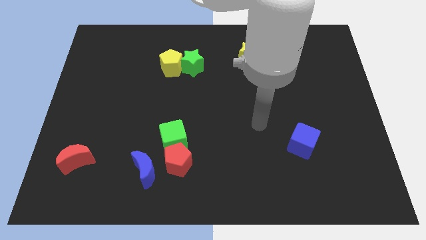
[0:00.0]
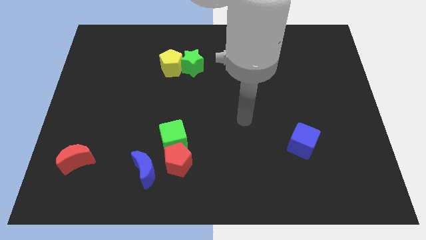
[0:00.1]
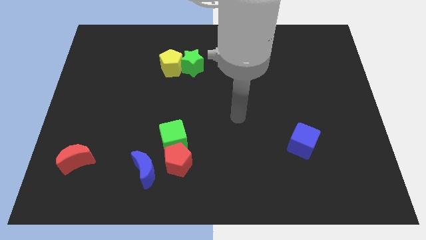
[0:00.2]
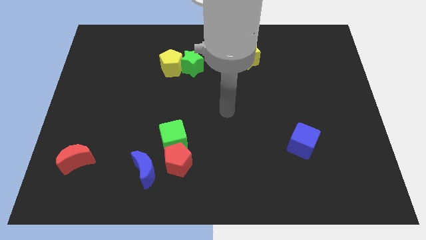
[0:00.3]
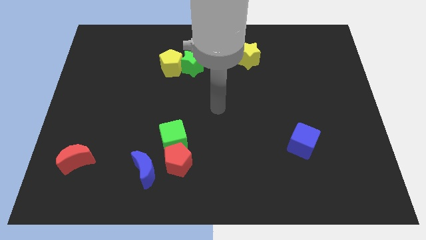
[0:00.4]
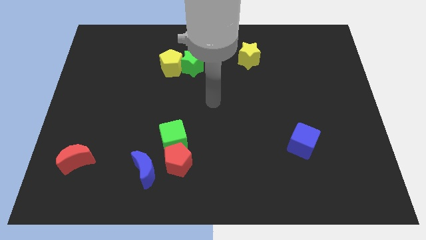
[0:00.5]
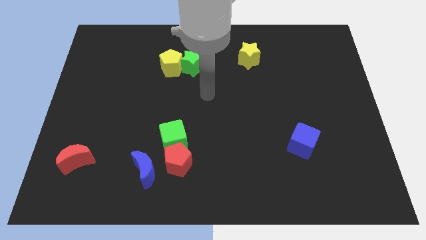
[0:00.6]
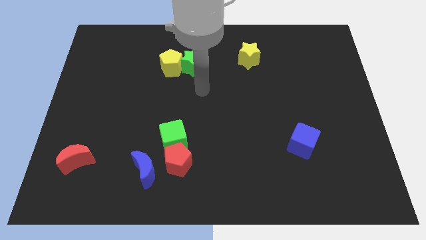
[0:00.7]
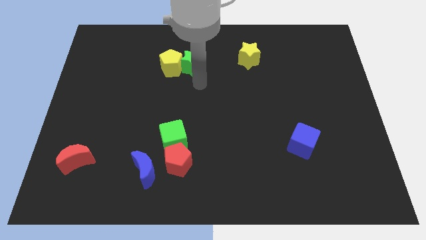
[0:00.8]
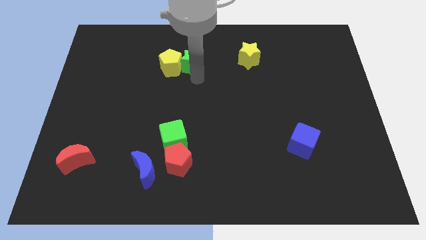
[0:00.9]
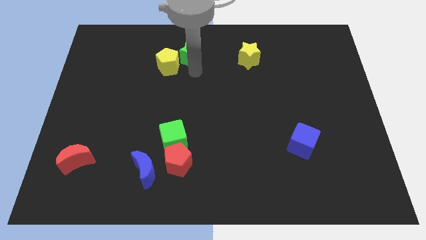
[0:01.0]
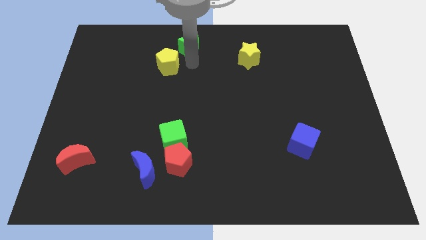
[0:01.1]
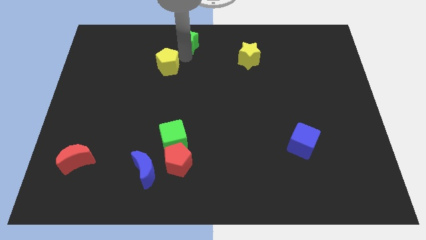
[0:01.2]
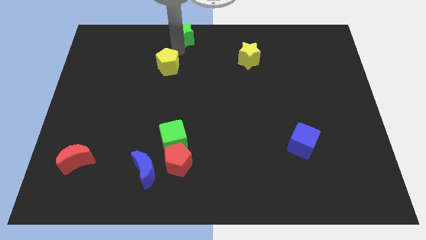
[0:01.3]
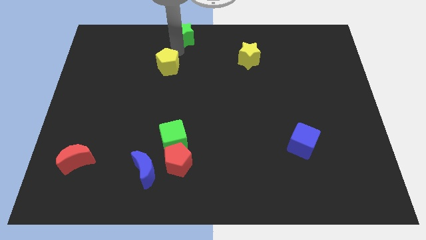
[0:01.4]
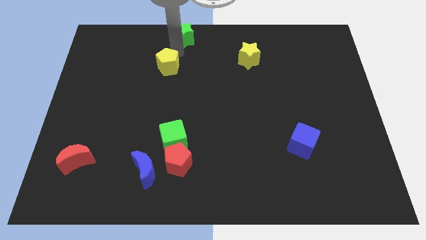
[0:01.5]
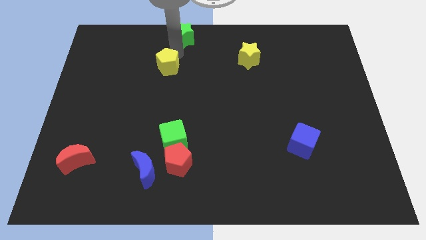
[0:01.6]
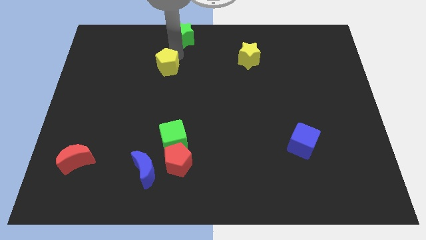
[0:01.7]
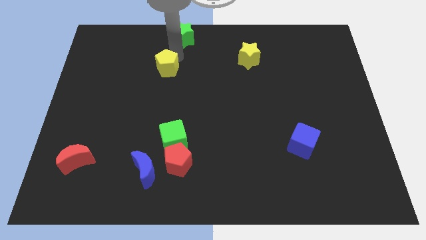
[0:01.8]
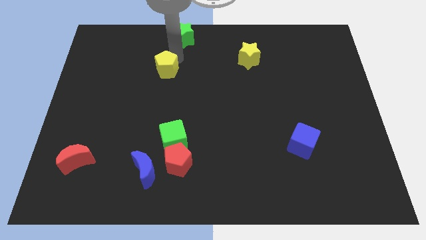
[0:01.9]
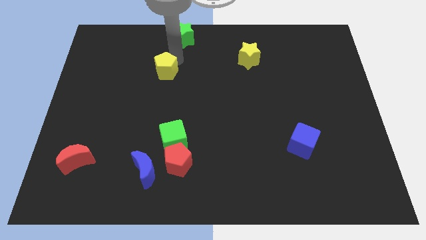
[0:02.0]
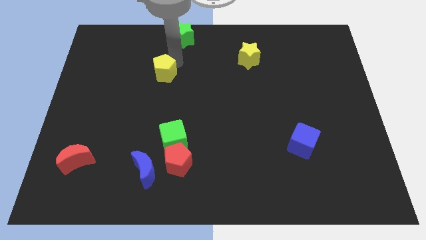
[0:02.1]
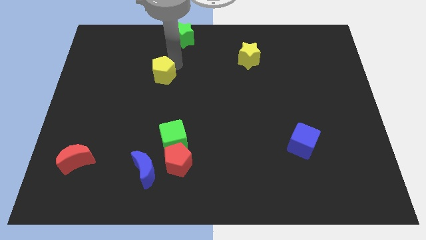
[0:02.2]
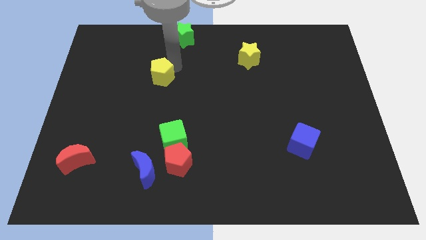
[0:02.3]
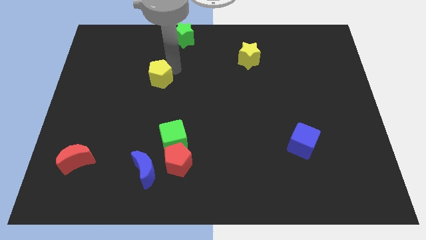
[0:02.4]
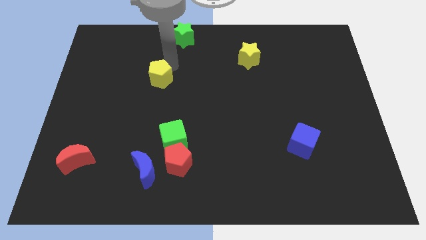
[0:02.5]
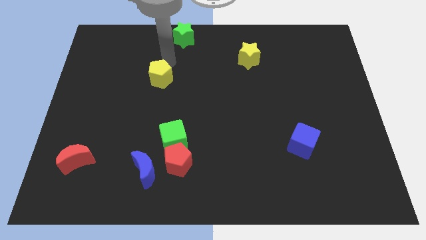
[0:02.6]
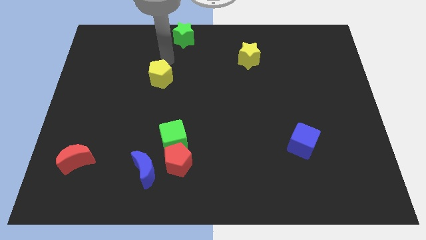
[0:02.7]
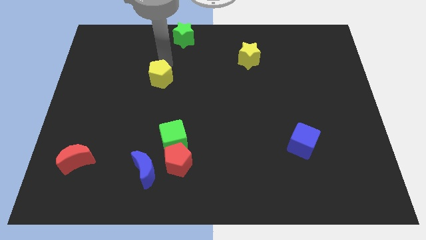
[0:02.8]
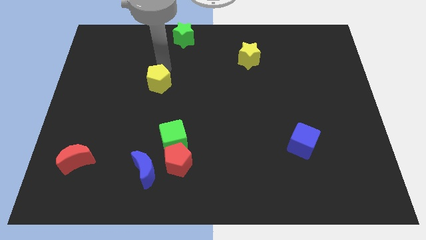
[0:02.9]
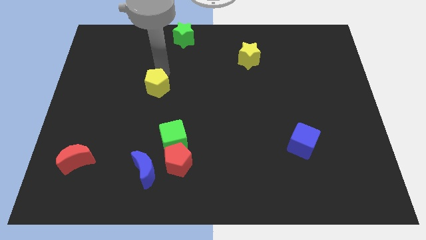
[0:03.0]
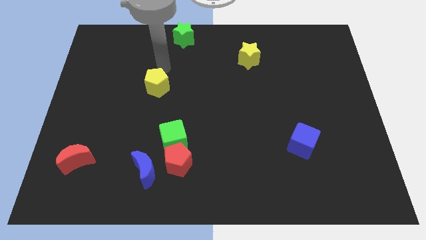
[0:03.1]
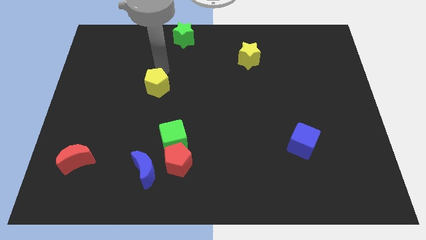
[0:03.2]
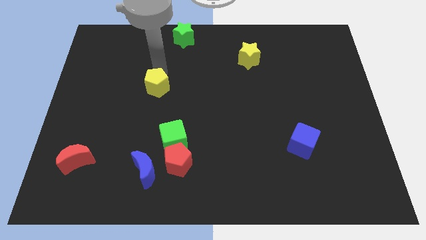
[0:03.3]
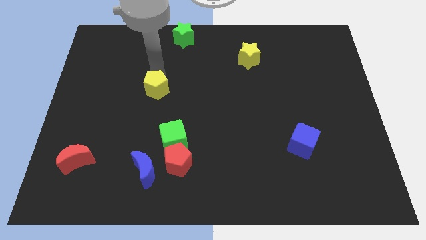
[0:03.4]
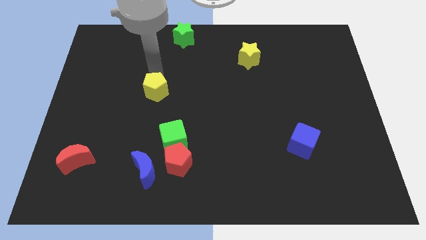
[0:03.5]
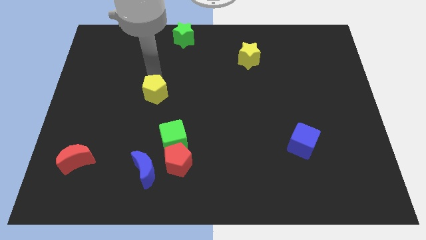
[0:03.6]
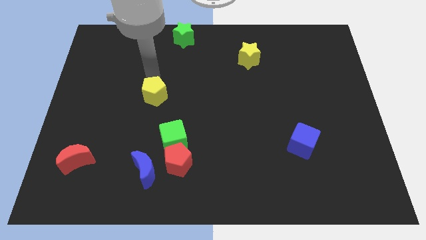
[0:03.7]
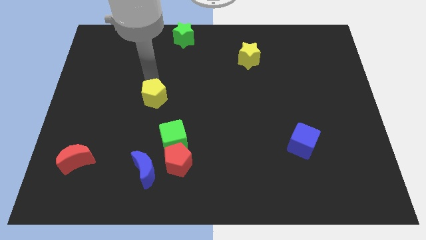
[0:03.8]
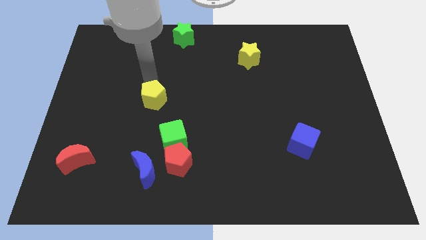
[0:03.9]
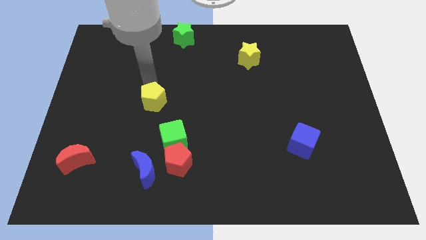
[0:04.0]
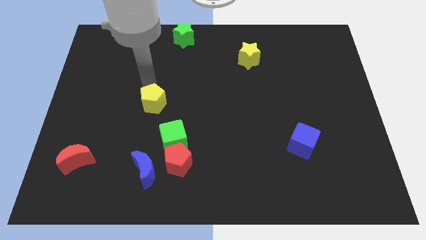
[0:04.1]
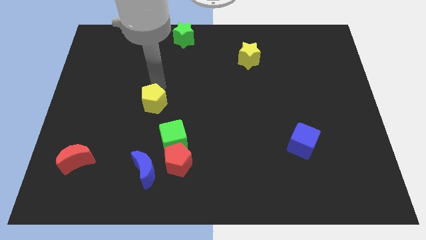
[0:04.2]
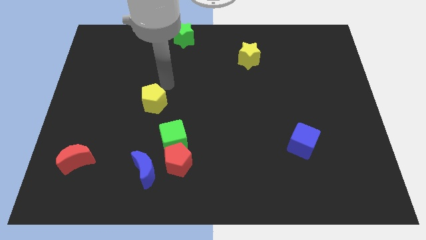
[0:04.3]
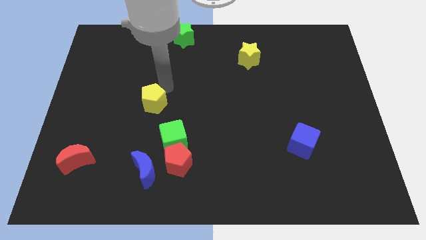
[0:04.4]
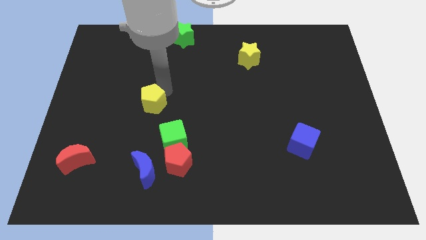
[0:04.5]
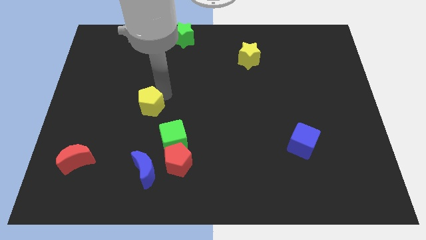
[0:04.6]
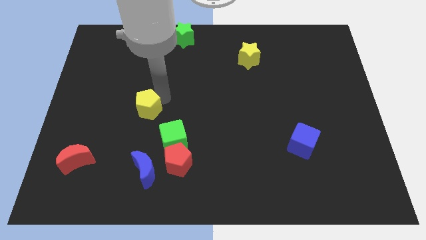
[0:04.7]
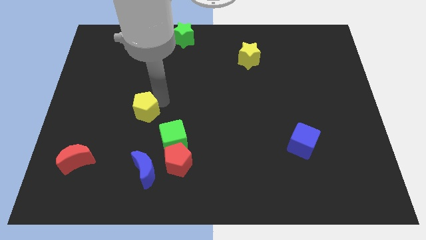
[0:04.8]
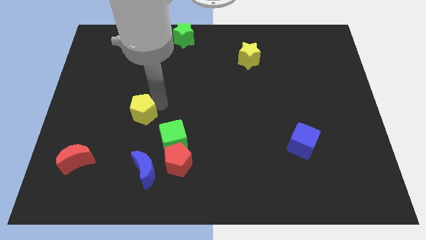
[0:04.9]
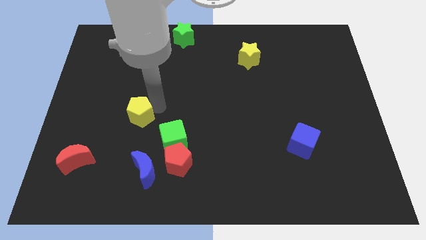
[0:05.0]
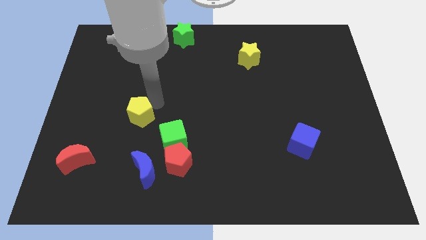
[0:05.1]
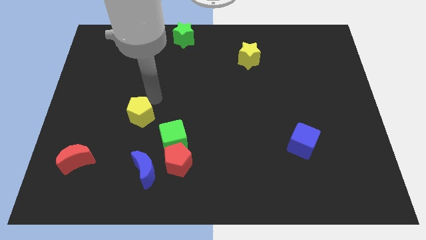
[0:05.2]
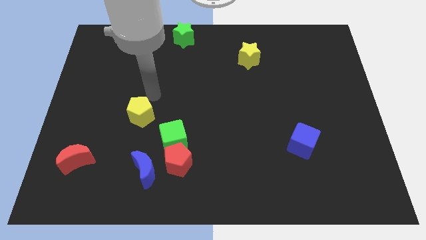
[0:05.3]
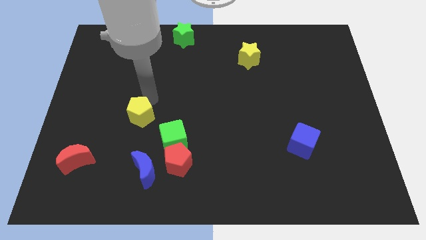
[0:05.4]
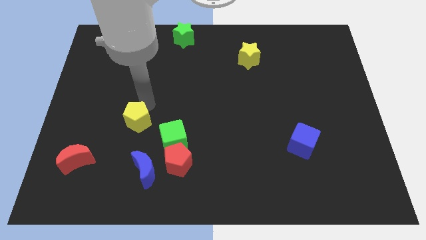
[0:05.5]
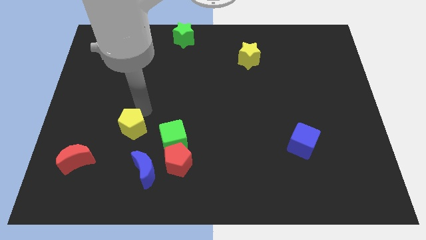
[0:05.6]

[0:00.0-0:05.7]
move the yellow pentagon just left of the green cube

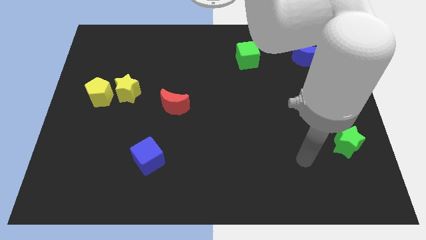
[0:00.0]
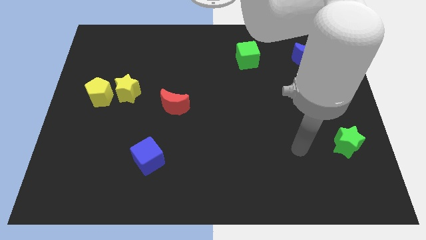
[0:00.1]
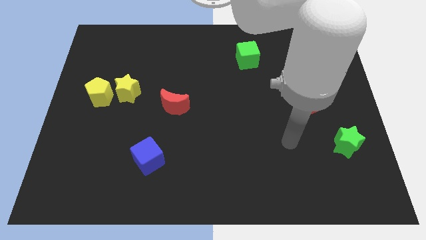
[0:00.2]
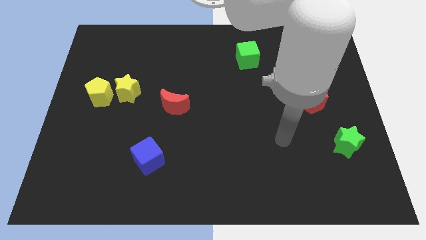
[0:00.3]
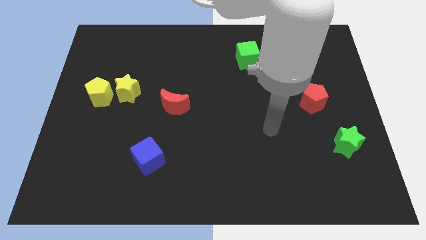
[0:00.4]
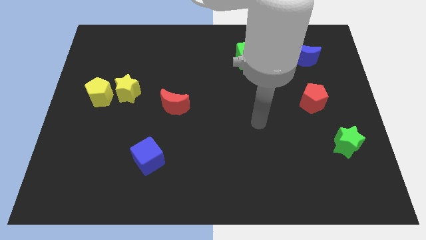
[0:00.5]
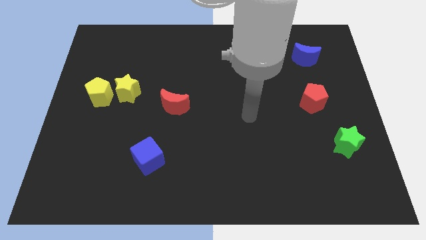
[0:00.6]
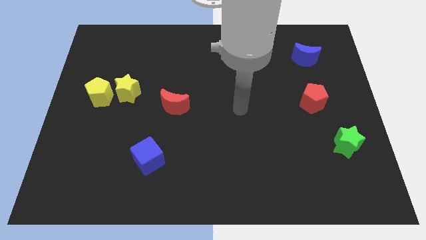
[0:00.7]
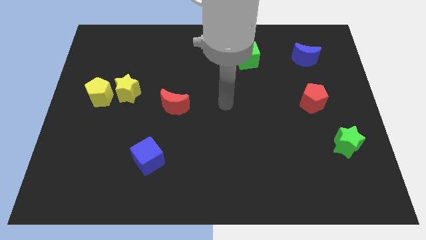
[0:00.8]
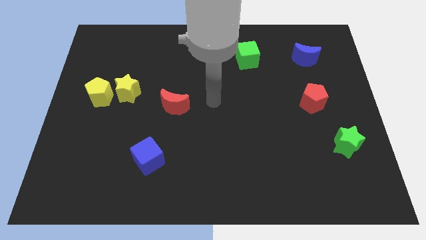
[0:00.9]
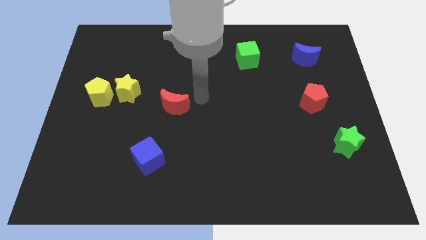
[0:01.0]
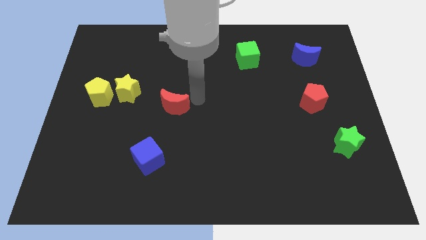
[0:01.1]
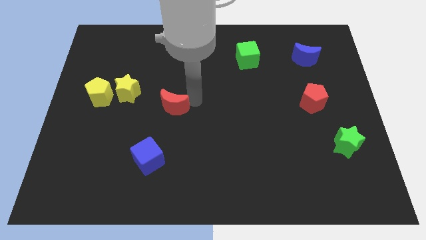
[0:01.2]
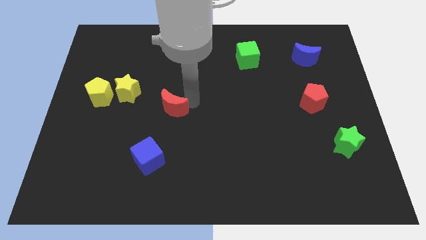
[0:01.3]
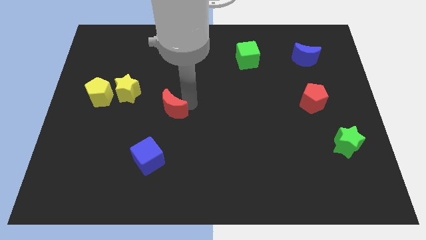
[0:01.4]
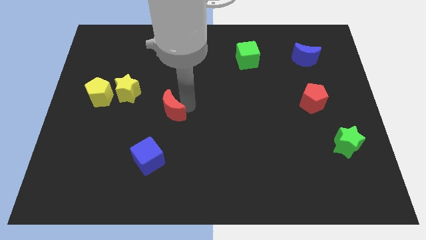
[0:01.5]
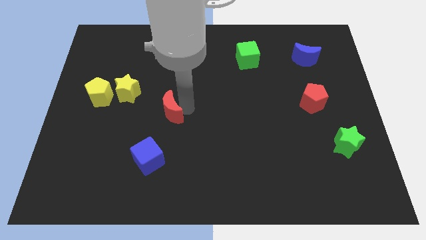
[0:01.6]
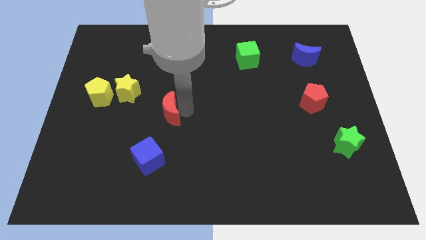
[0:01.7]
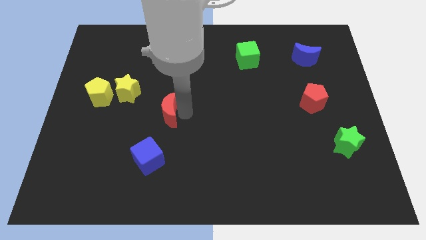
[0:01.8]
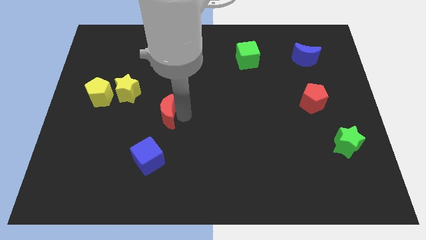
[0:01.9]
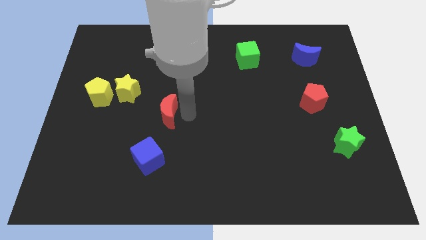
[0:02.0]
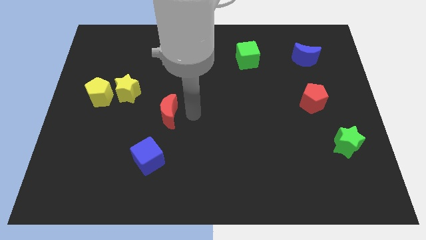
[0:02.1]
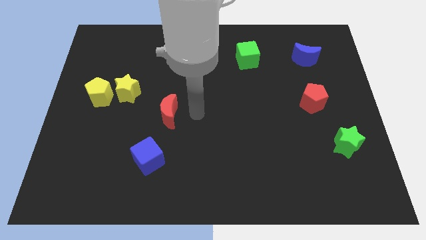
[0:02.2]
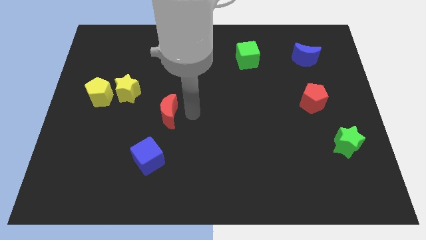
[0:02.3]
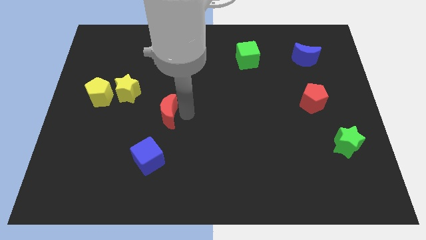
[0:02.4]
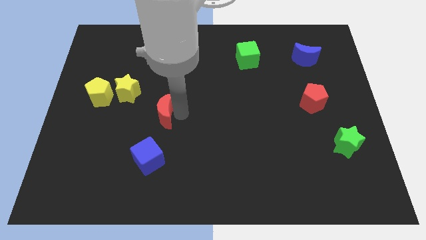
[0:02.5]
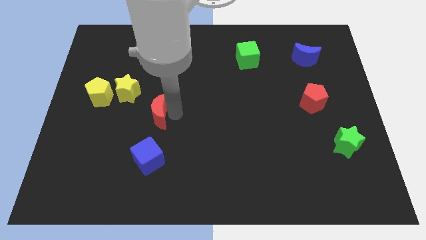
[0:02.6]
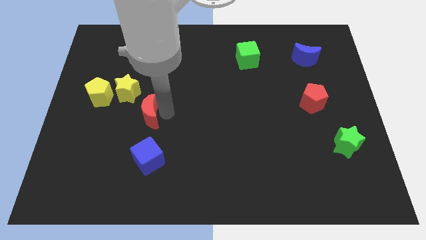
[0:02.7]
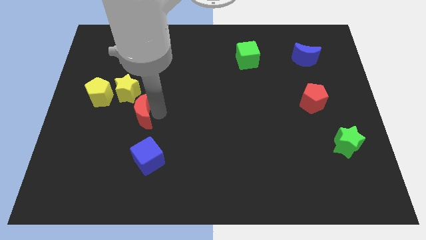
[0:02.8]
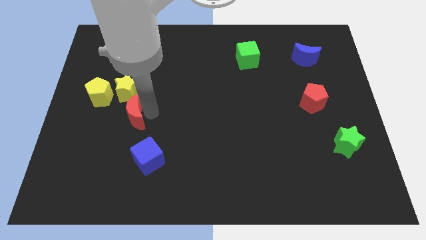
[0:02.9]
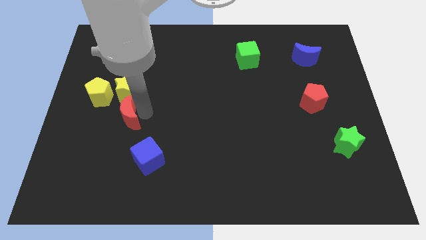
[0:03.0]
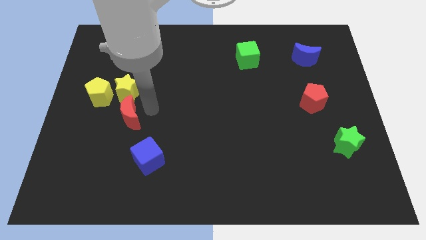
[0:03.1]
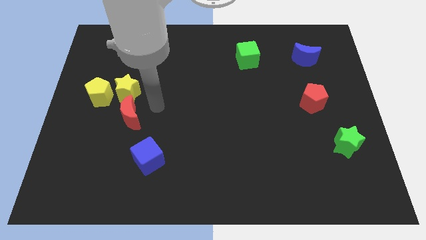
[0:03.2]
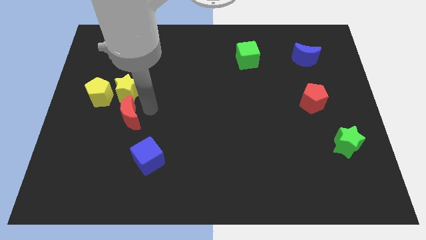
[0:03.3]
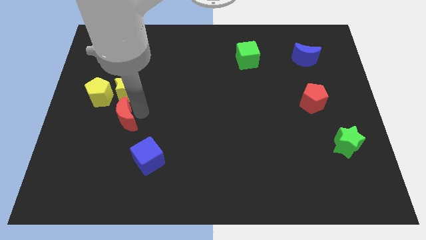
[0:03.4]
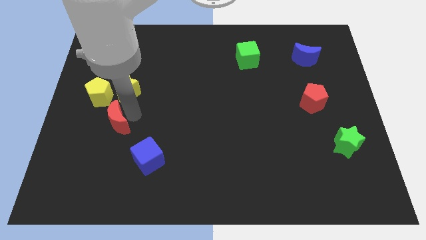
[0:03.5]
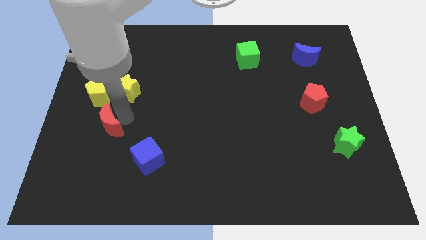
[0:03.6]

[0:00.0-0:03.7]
push the red moon to the bottom of the yellow pentagon
